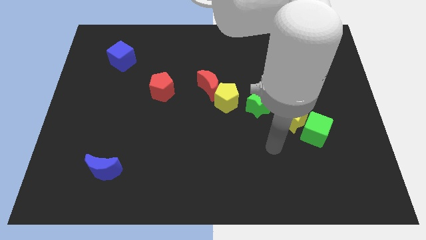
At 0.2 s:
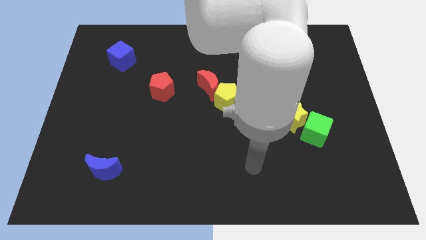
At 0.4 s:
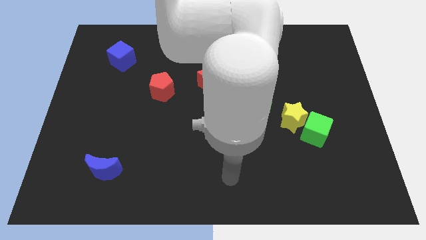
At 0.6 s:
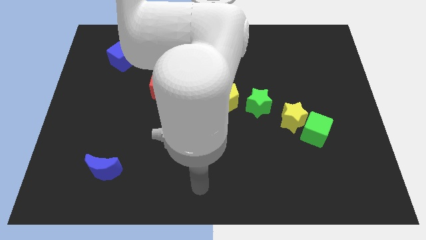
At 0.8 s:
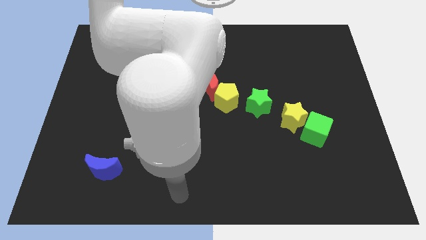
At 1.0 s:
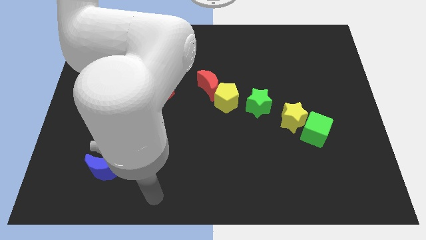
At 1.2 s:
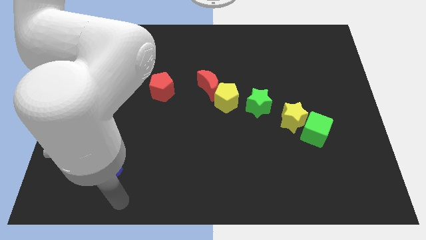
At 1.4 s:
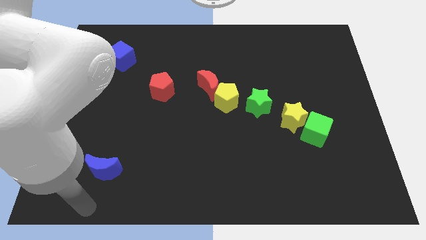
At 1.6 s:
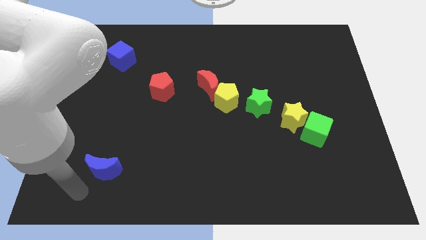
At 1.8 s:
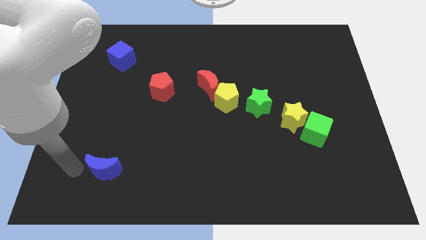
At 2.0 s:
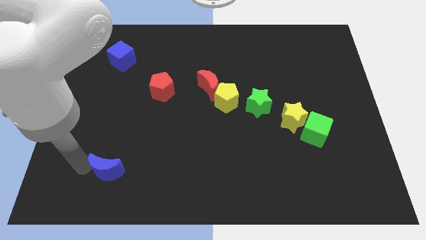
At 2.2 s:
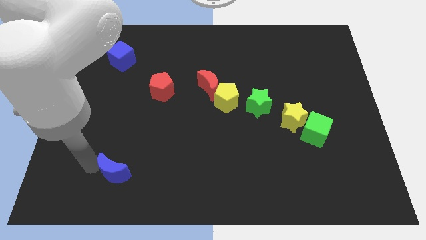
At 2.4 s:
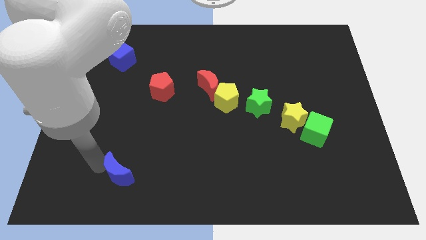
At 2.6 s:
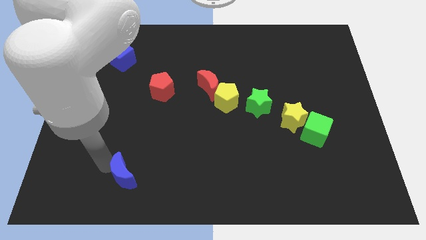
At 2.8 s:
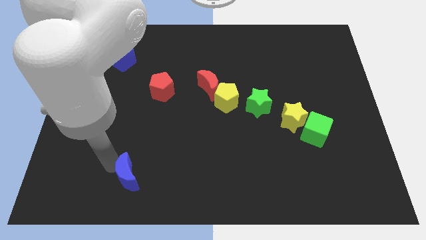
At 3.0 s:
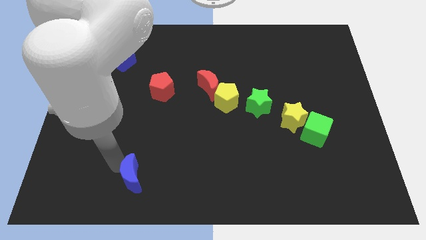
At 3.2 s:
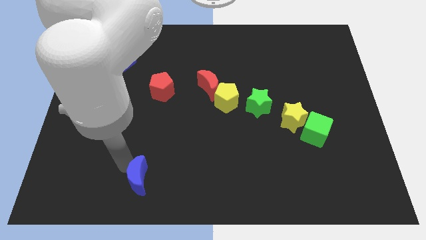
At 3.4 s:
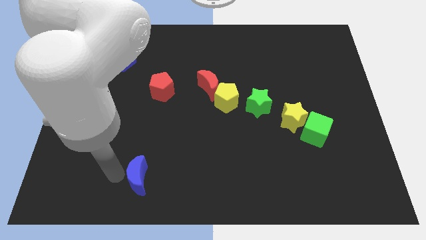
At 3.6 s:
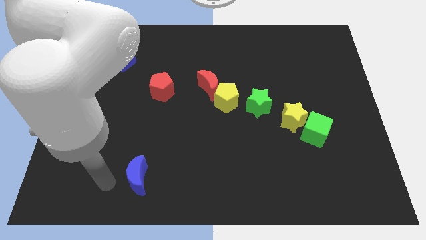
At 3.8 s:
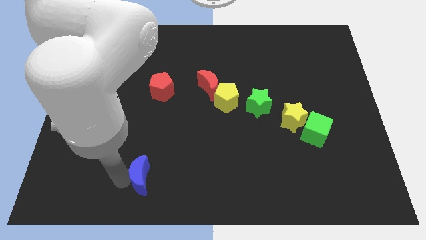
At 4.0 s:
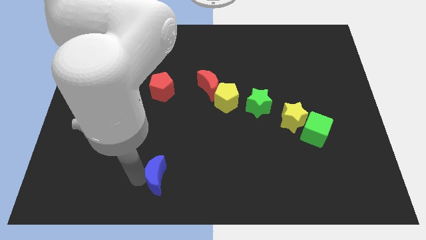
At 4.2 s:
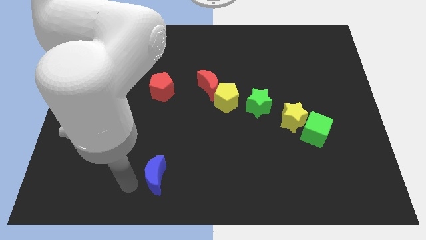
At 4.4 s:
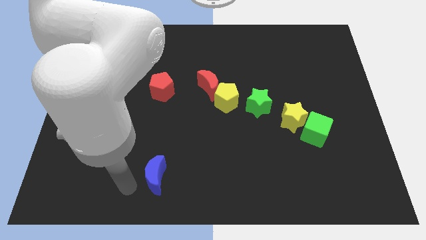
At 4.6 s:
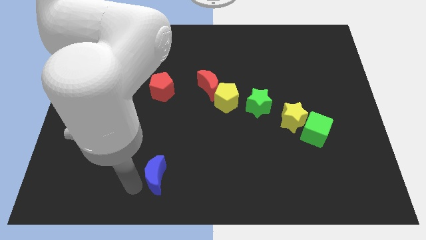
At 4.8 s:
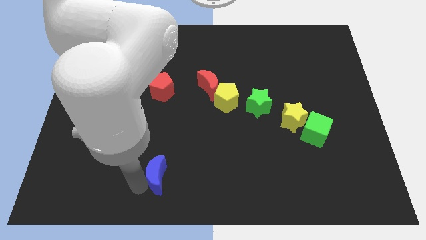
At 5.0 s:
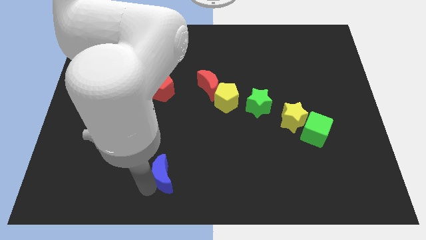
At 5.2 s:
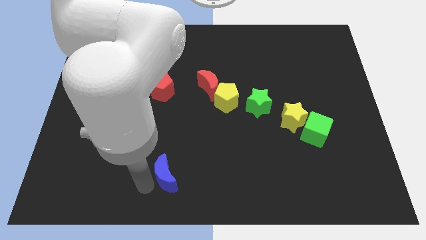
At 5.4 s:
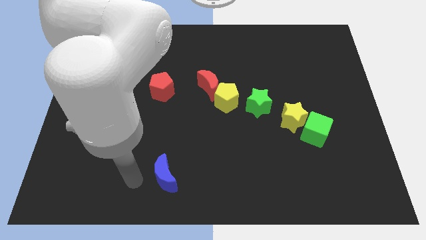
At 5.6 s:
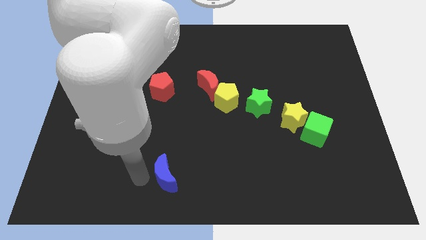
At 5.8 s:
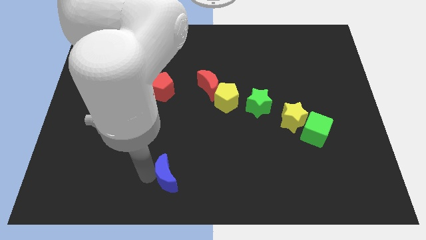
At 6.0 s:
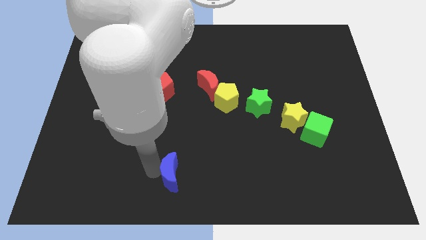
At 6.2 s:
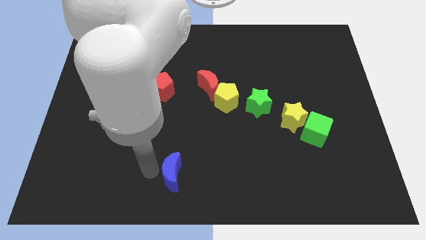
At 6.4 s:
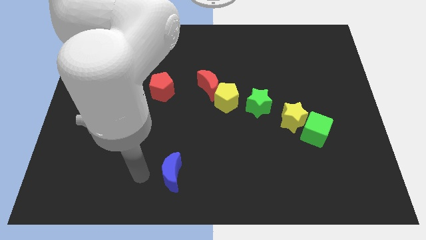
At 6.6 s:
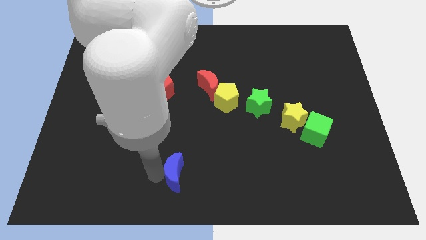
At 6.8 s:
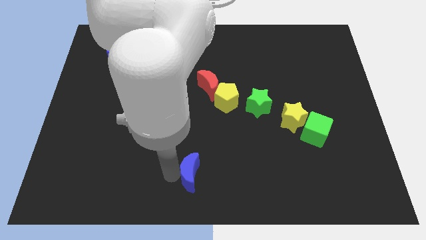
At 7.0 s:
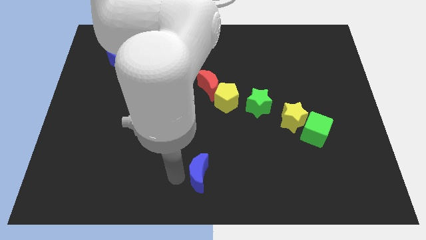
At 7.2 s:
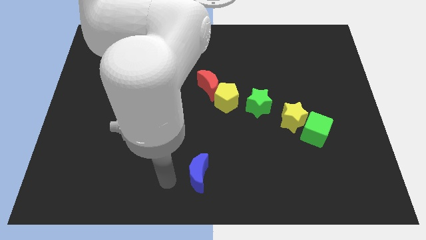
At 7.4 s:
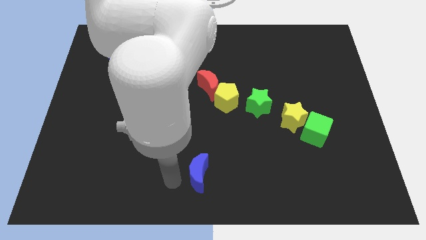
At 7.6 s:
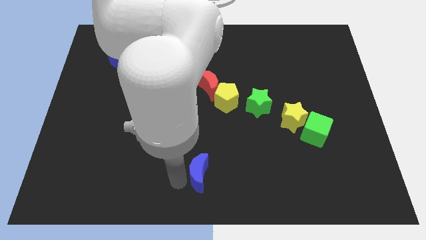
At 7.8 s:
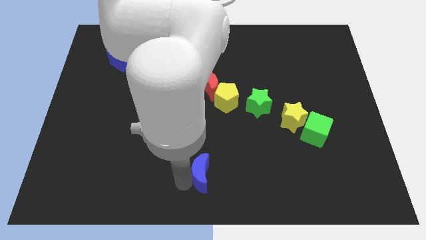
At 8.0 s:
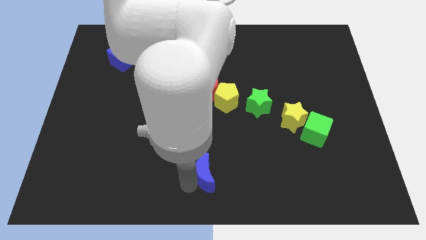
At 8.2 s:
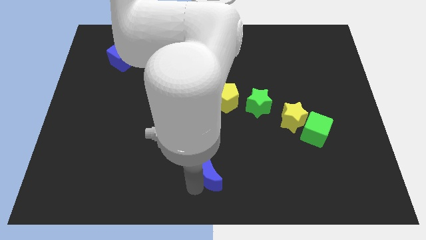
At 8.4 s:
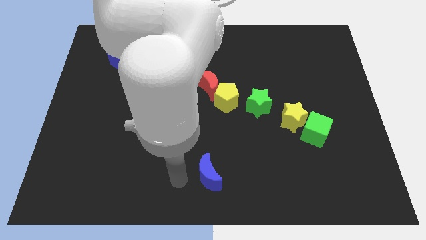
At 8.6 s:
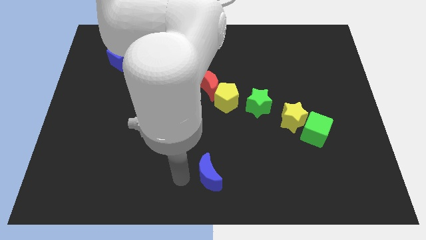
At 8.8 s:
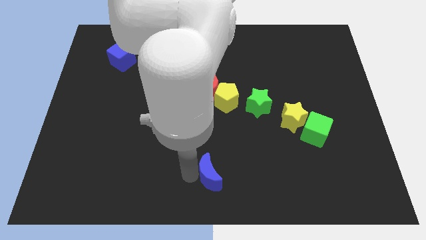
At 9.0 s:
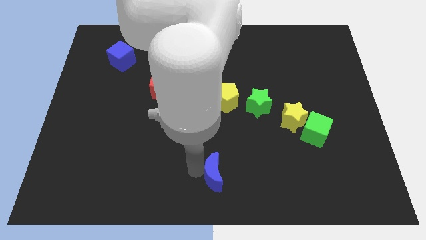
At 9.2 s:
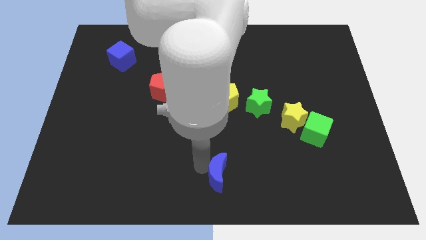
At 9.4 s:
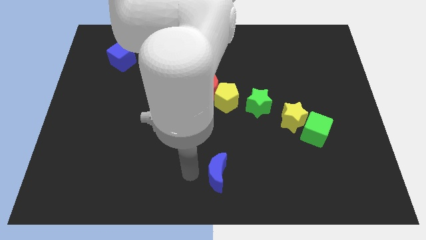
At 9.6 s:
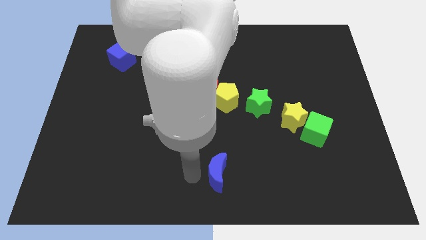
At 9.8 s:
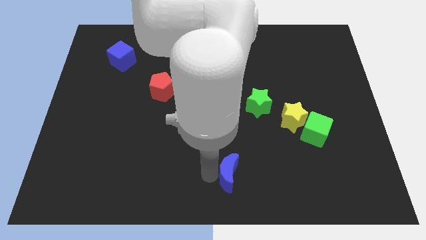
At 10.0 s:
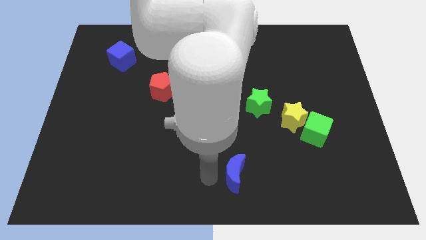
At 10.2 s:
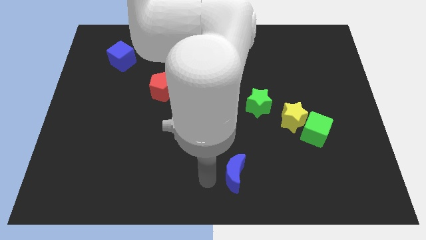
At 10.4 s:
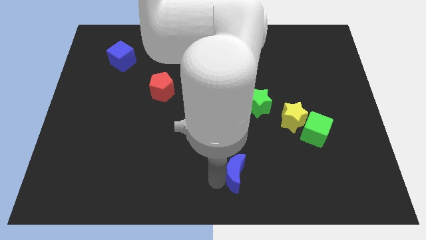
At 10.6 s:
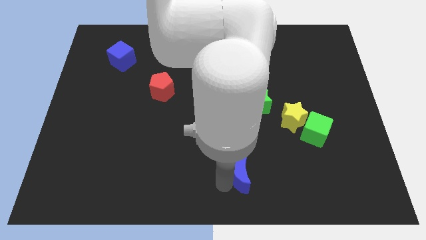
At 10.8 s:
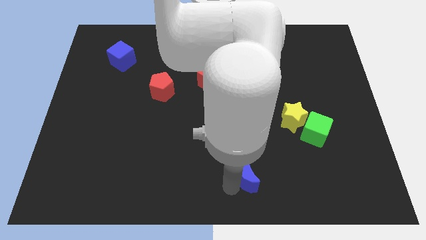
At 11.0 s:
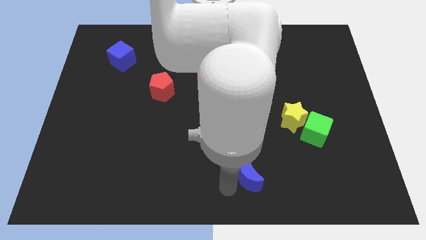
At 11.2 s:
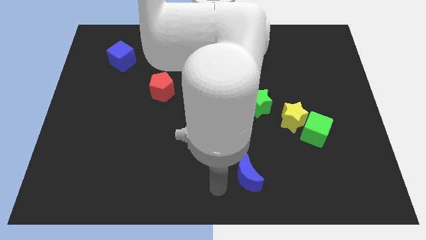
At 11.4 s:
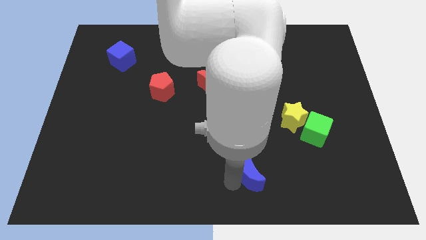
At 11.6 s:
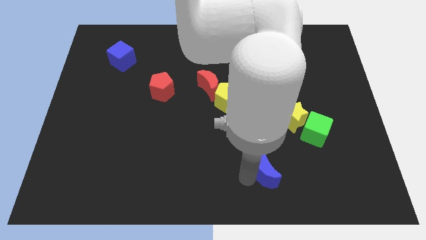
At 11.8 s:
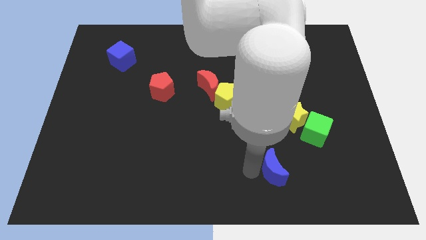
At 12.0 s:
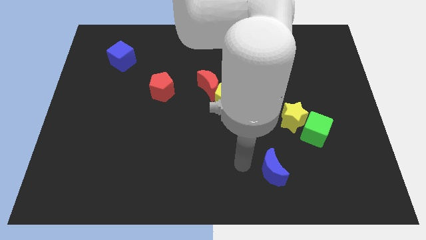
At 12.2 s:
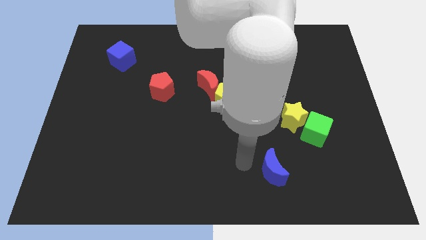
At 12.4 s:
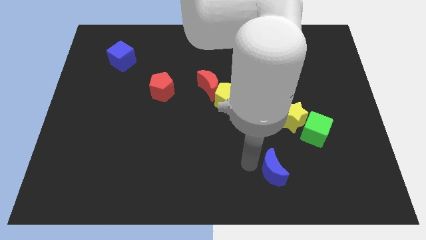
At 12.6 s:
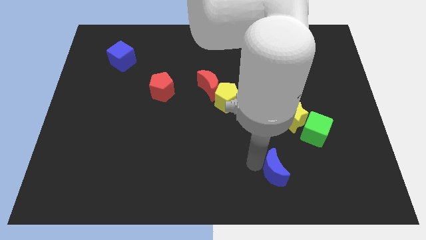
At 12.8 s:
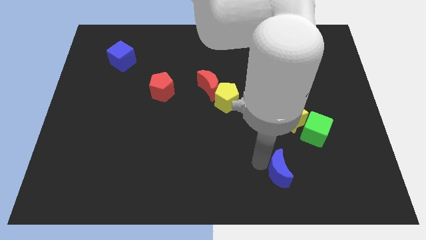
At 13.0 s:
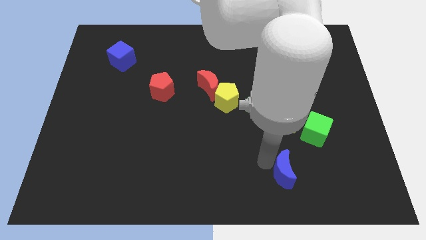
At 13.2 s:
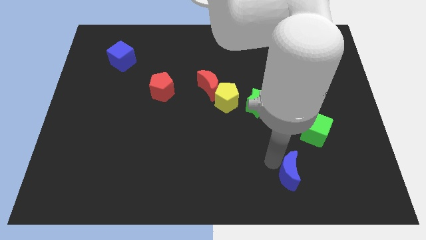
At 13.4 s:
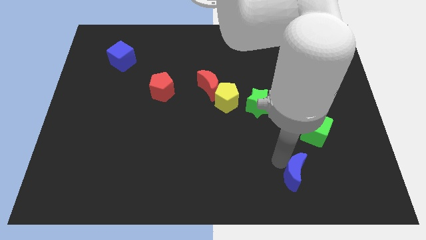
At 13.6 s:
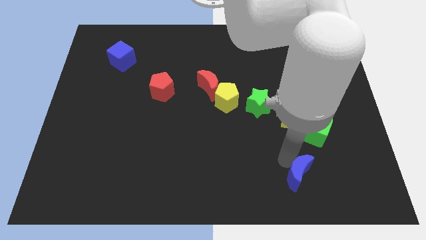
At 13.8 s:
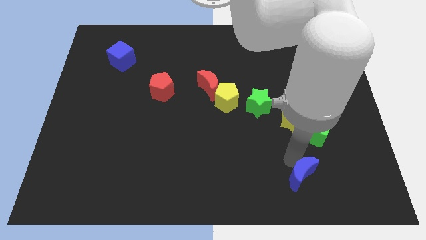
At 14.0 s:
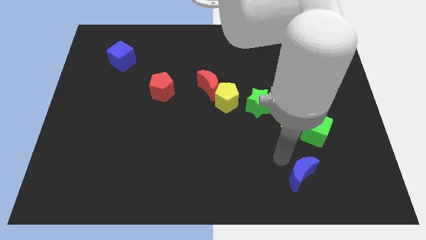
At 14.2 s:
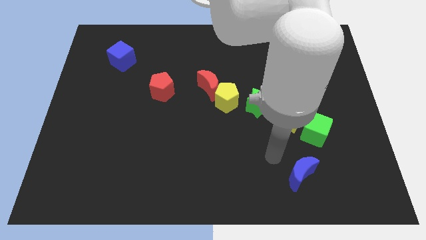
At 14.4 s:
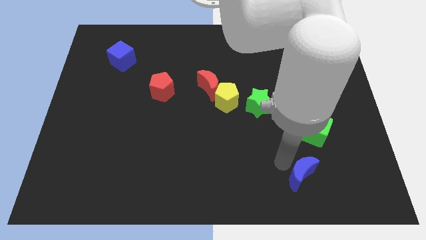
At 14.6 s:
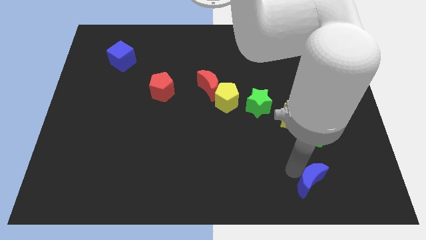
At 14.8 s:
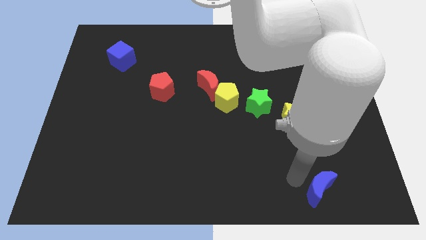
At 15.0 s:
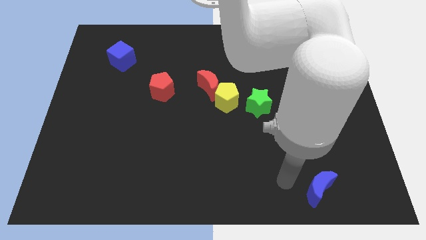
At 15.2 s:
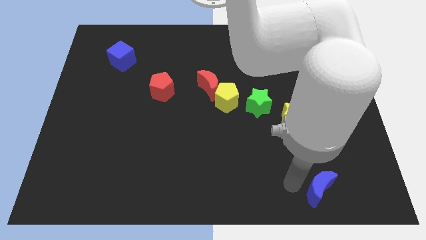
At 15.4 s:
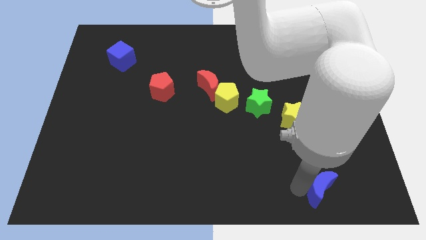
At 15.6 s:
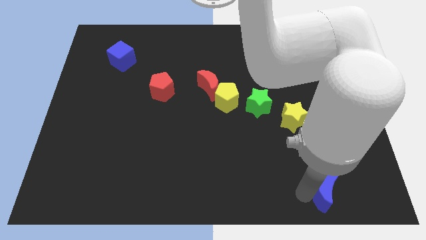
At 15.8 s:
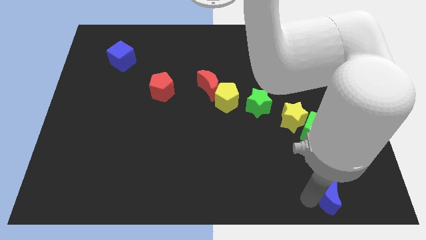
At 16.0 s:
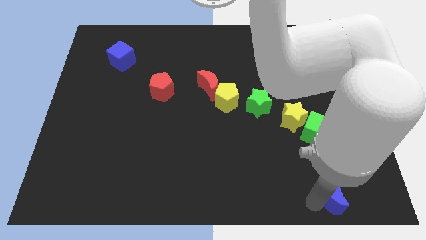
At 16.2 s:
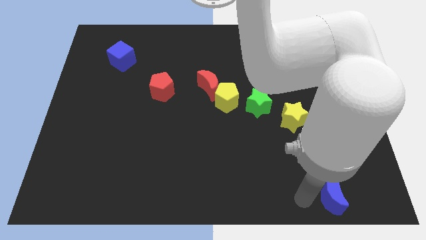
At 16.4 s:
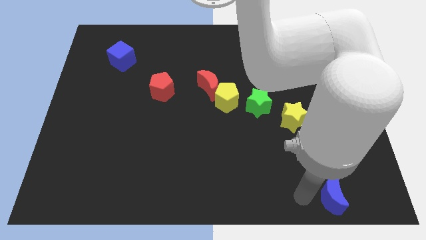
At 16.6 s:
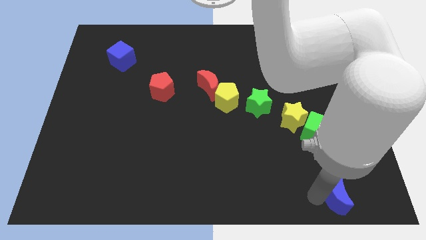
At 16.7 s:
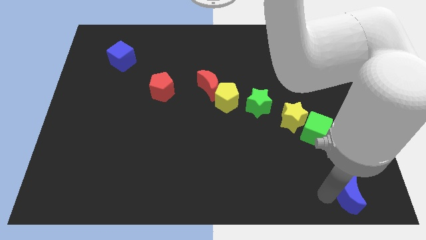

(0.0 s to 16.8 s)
move the blue moon to the bottom right
